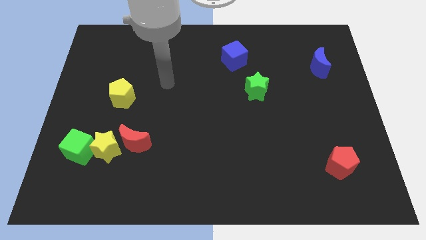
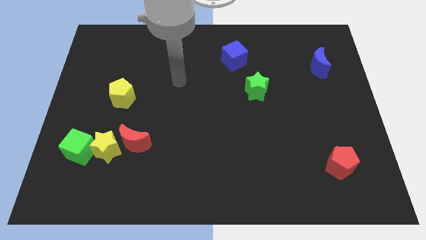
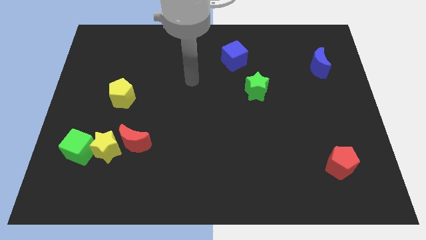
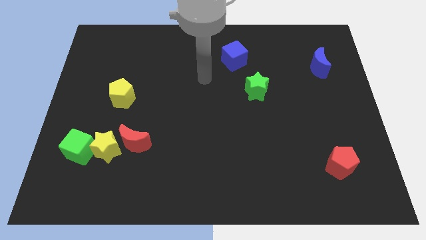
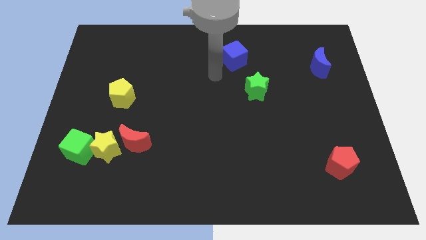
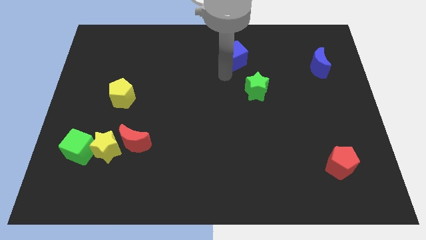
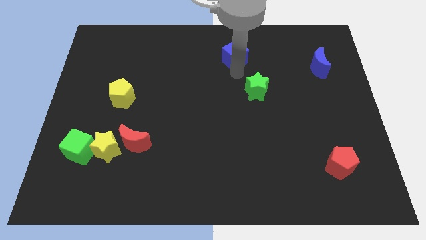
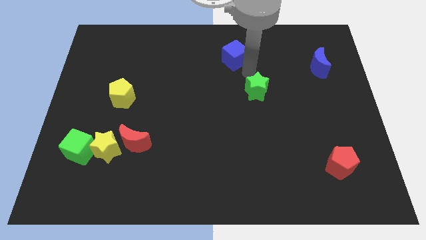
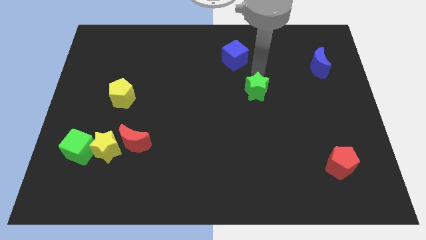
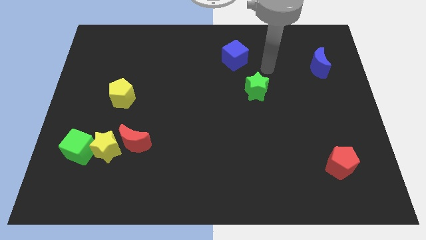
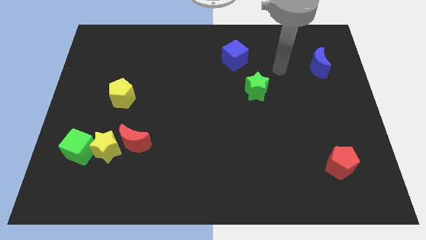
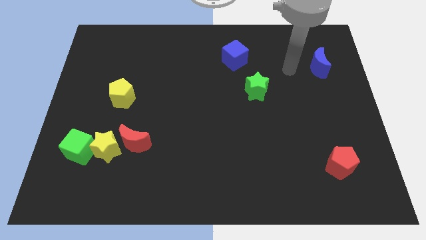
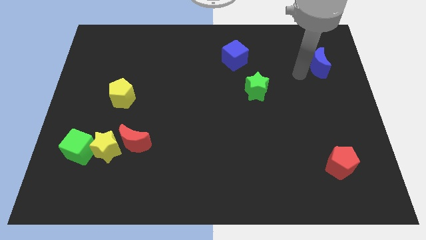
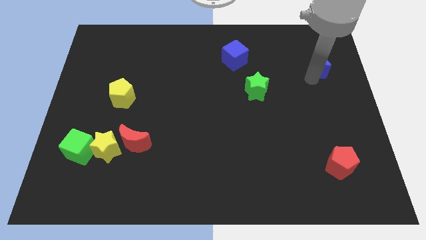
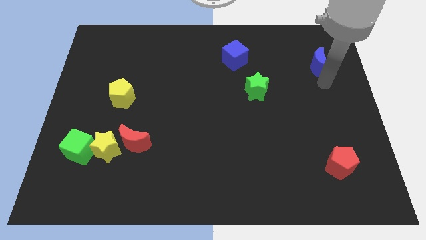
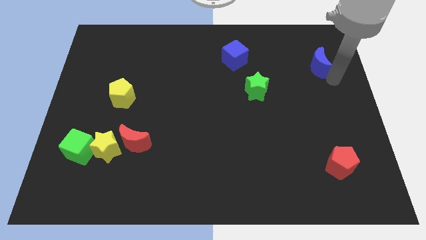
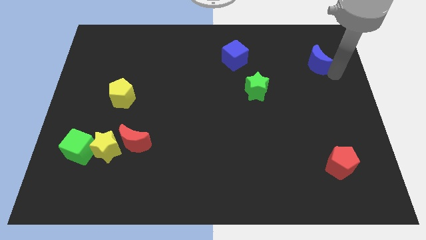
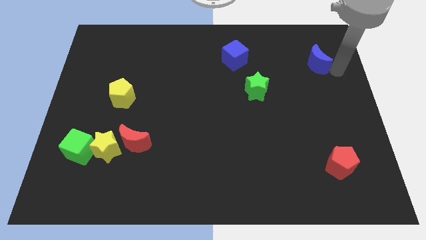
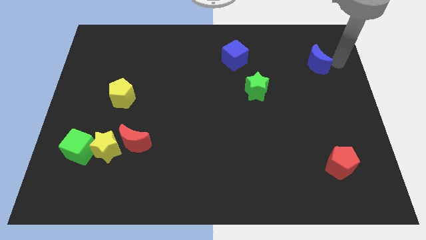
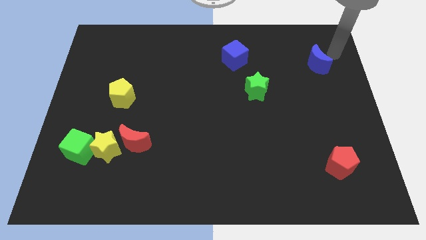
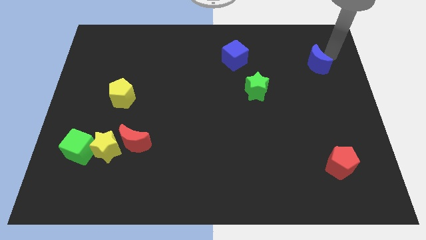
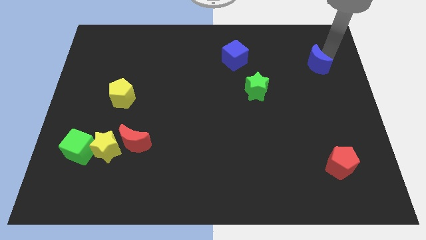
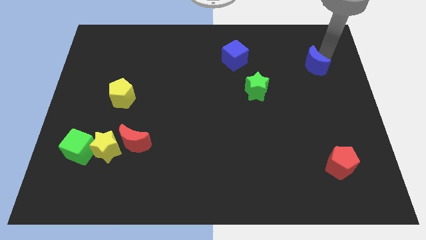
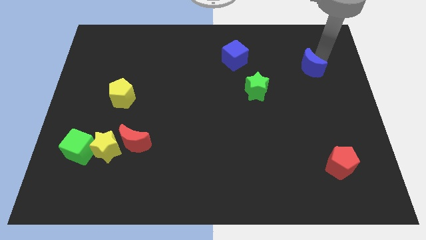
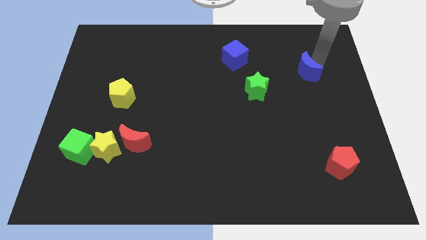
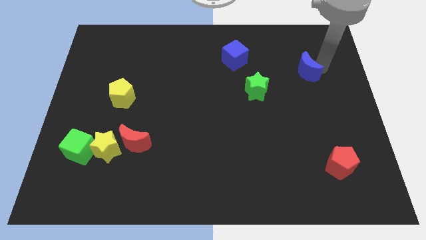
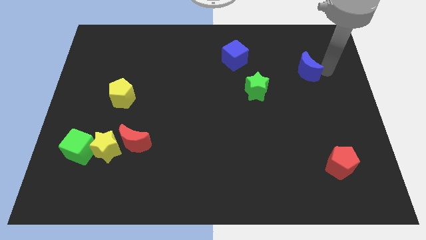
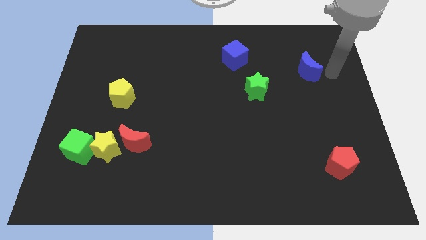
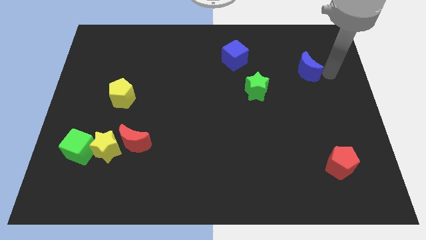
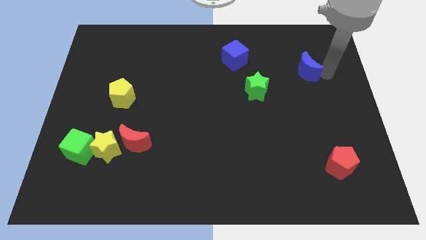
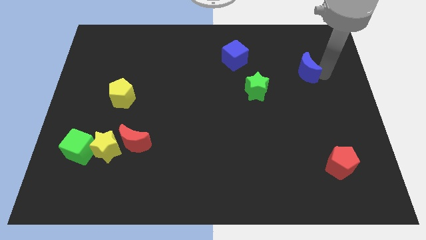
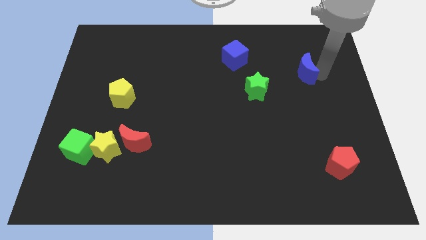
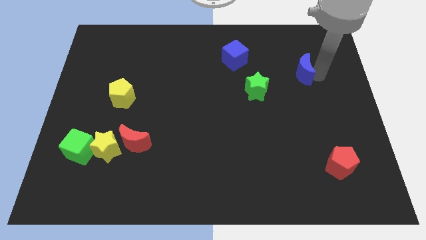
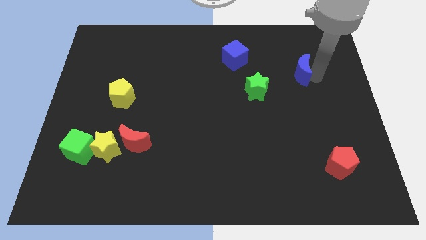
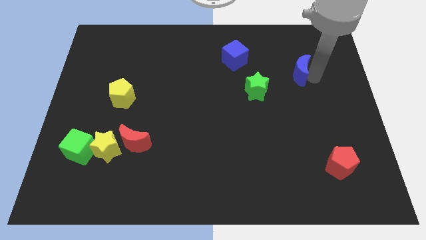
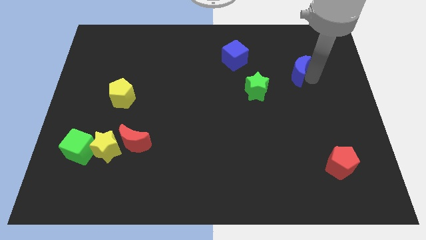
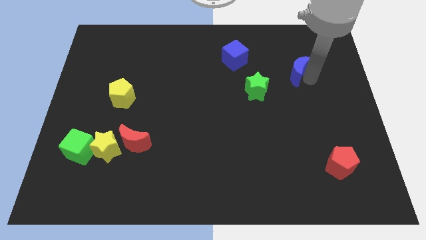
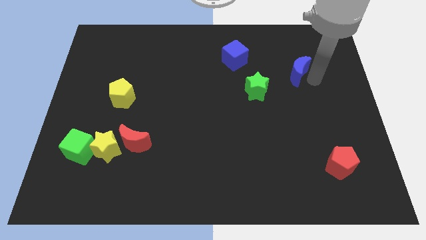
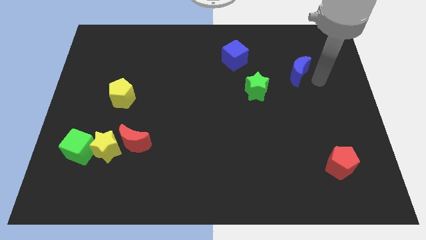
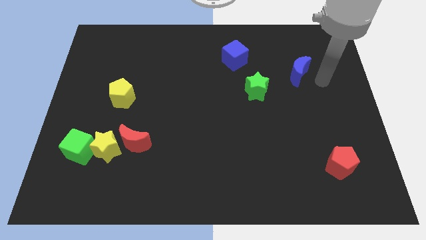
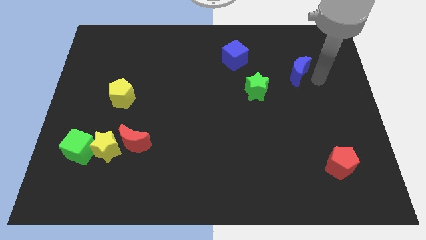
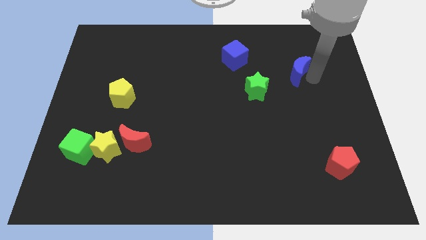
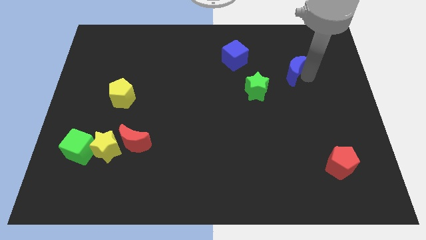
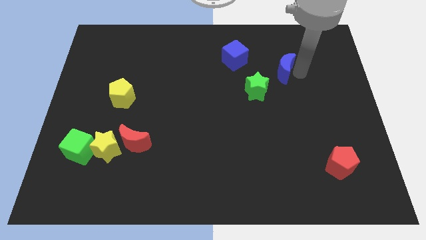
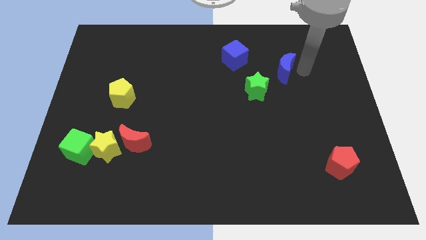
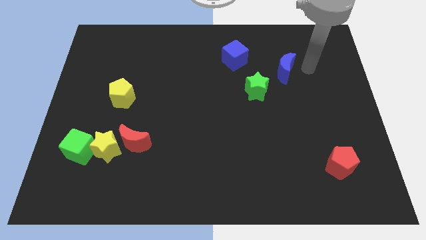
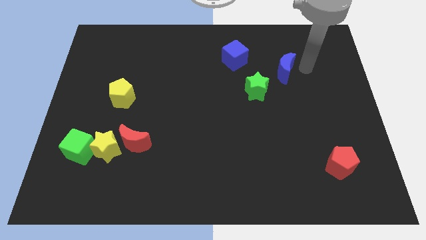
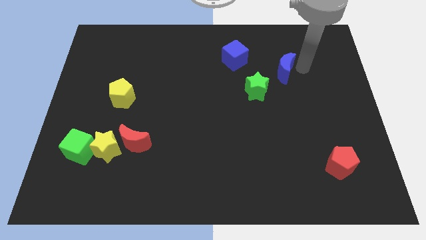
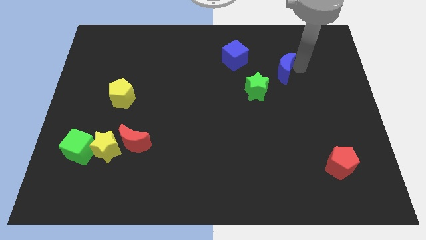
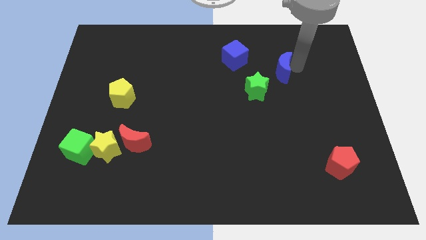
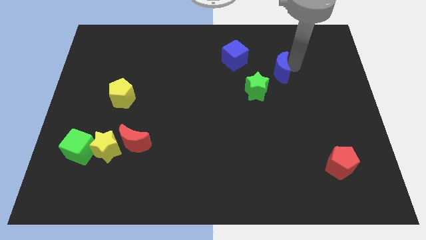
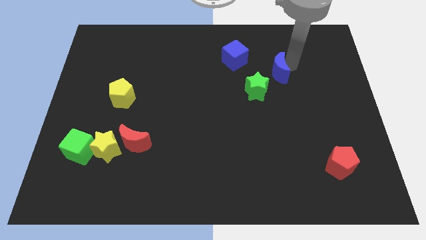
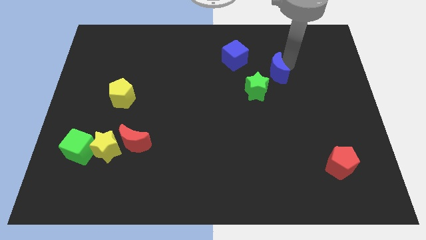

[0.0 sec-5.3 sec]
put the blue moon to the bottom right side of the blue cube

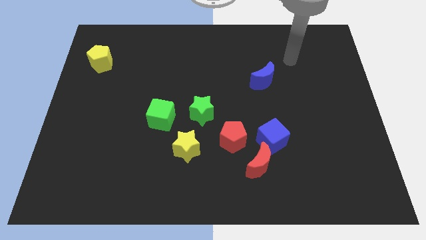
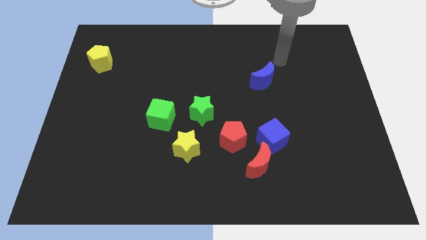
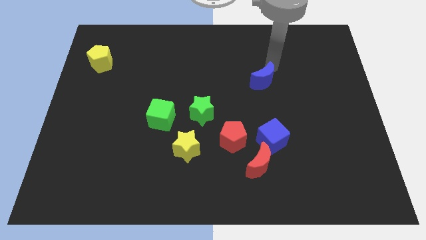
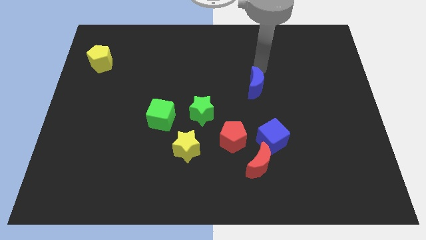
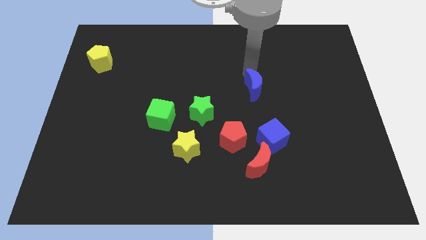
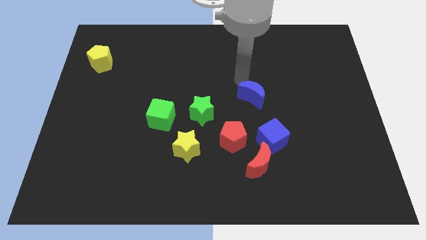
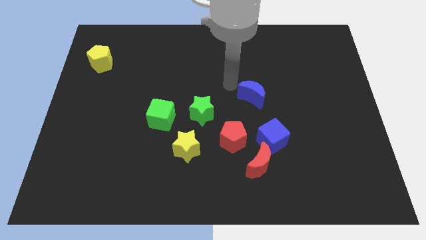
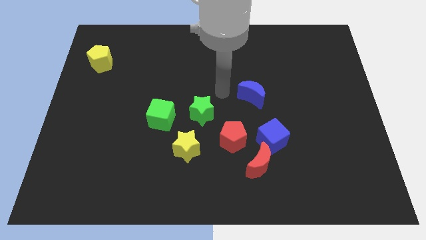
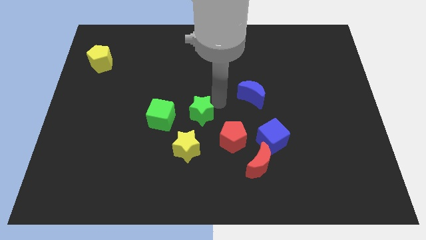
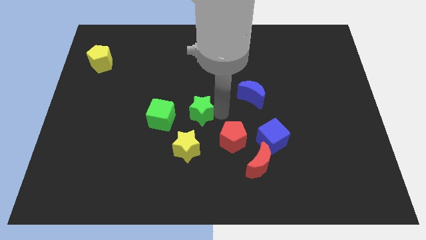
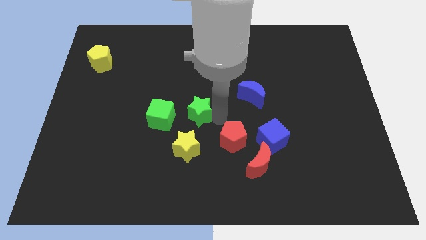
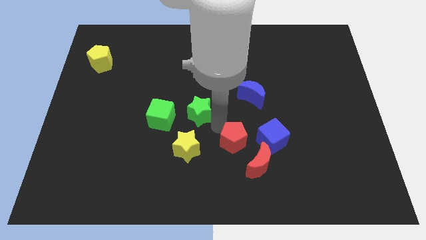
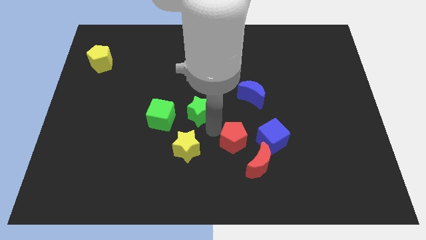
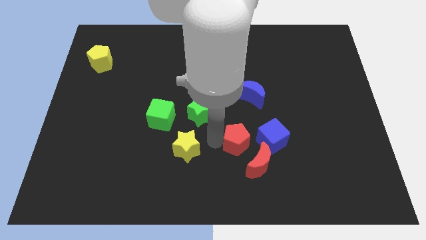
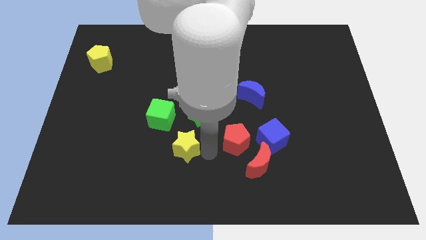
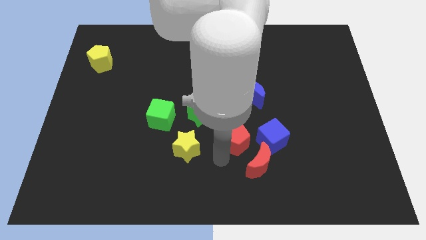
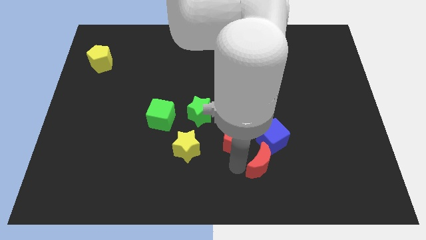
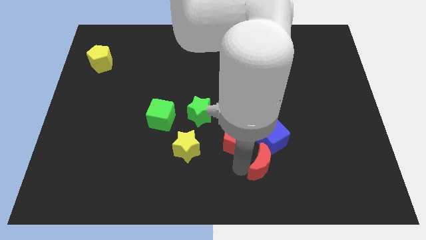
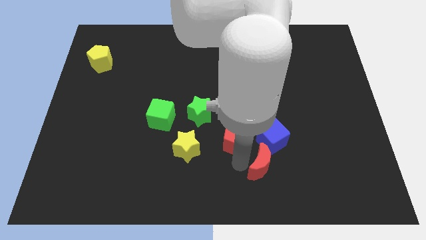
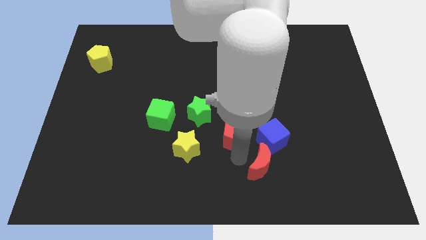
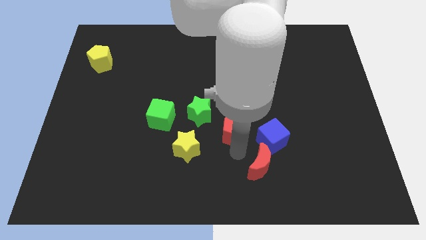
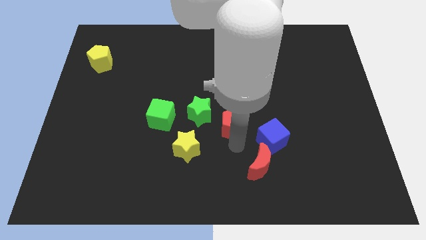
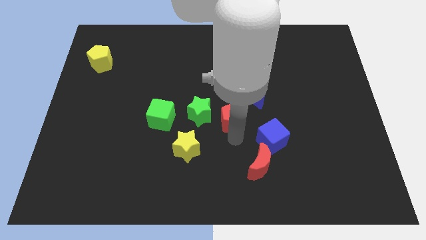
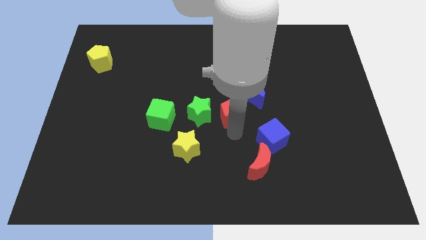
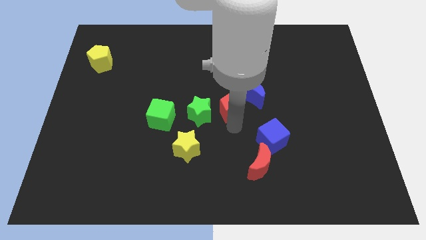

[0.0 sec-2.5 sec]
put the red pentagon diagonally up and to the right of the green star
